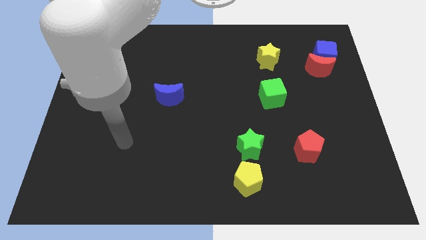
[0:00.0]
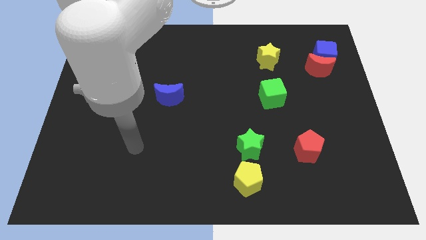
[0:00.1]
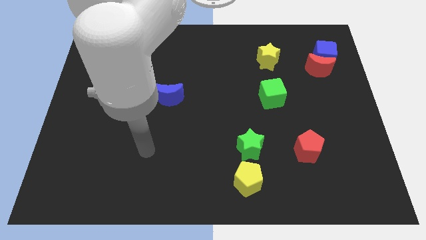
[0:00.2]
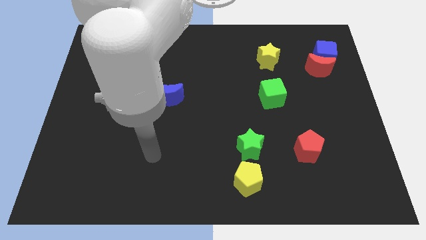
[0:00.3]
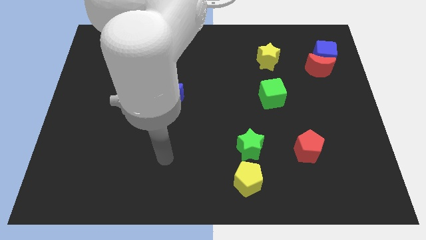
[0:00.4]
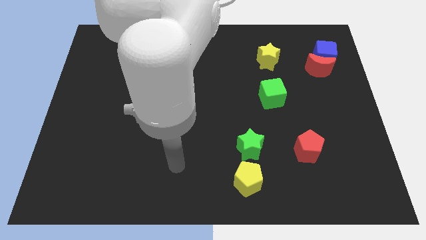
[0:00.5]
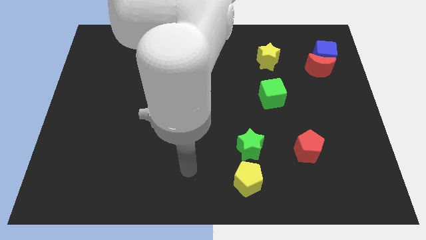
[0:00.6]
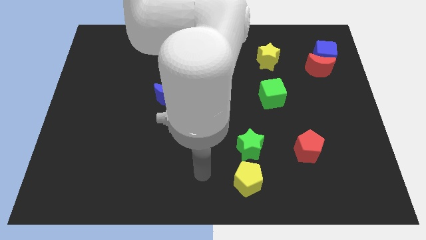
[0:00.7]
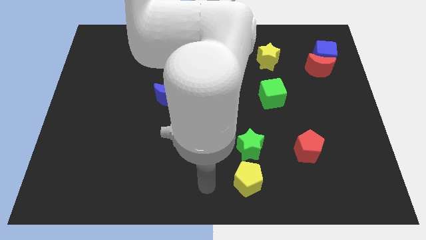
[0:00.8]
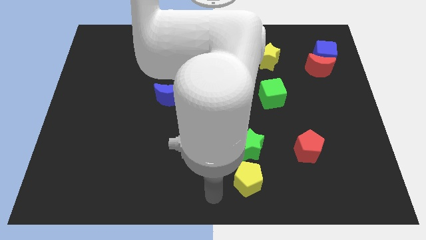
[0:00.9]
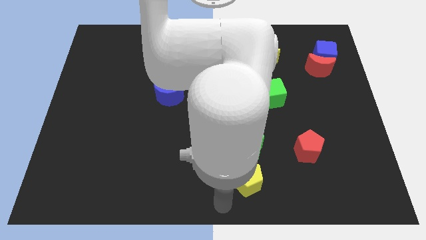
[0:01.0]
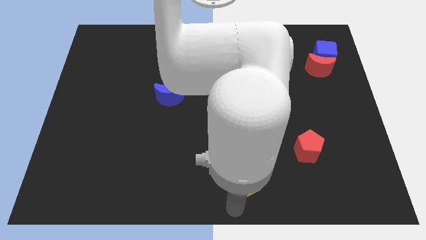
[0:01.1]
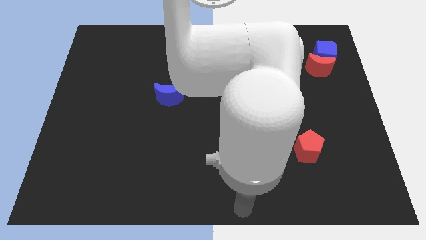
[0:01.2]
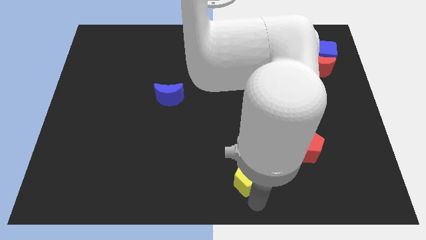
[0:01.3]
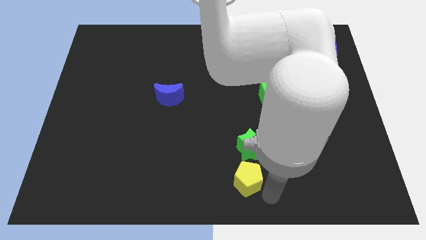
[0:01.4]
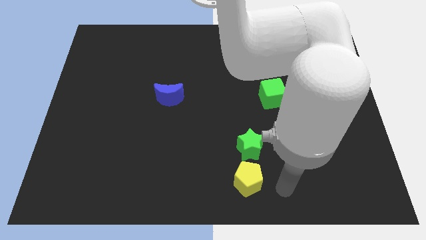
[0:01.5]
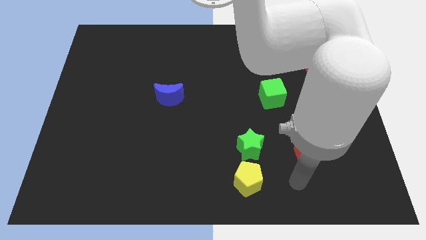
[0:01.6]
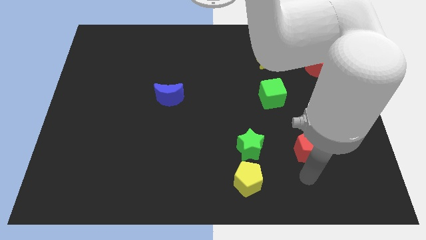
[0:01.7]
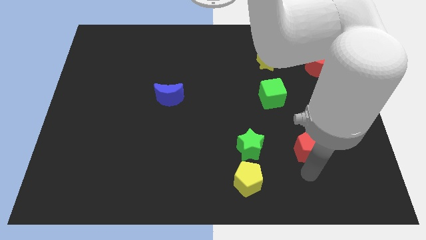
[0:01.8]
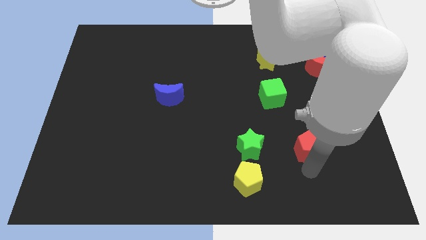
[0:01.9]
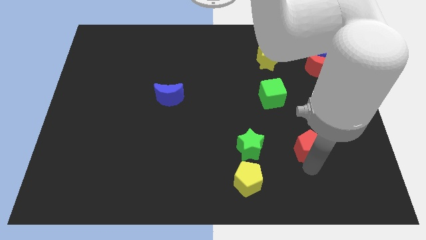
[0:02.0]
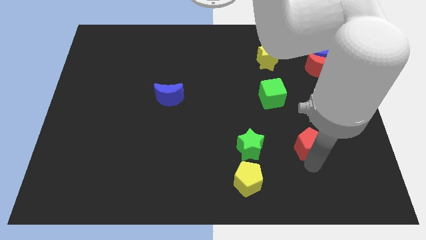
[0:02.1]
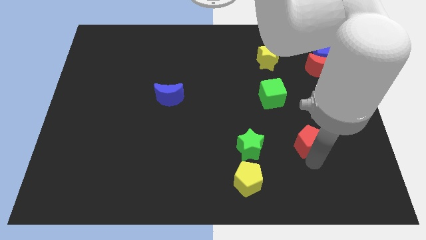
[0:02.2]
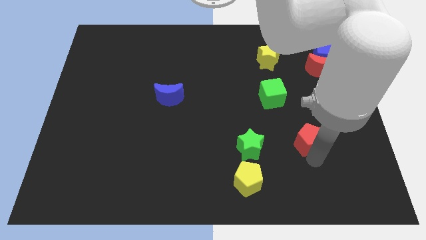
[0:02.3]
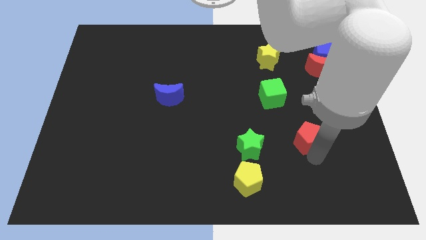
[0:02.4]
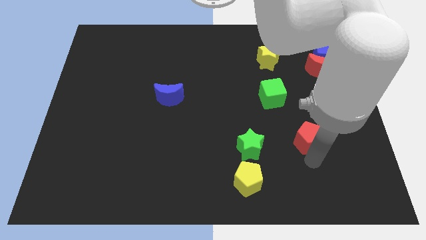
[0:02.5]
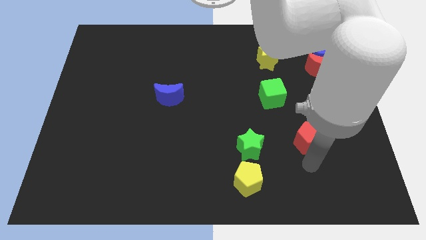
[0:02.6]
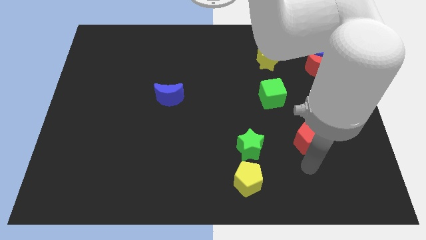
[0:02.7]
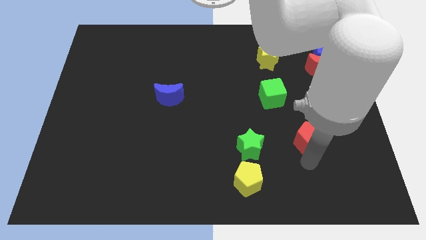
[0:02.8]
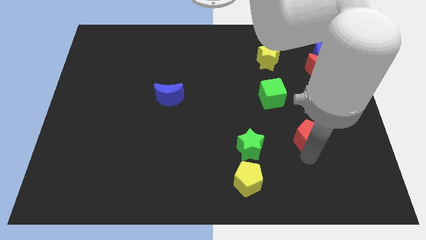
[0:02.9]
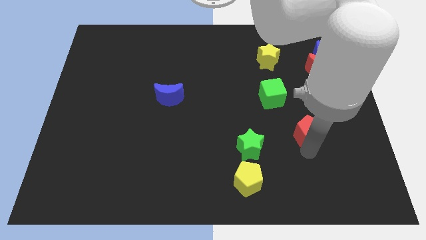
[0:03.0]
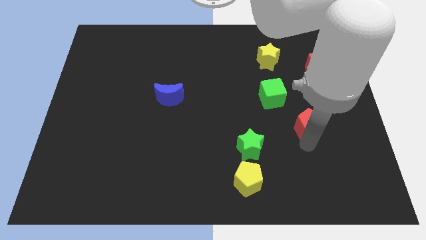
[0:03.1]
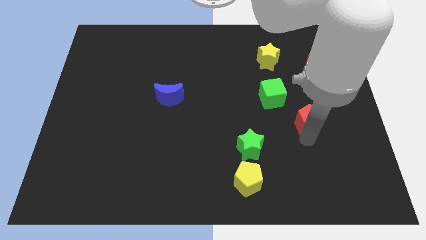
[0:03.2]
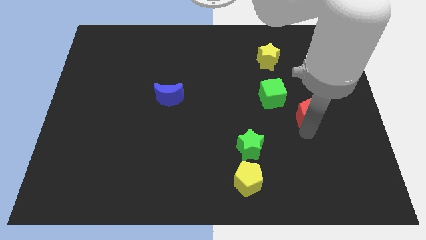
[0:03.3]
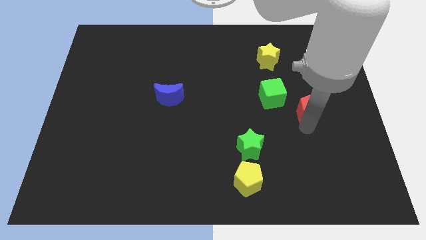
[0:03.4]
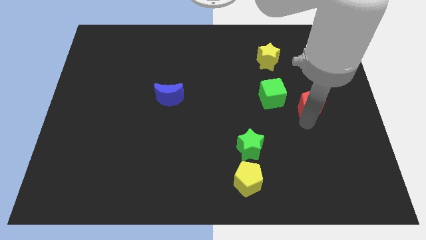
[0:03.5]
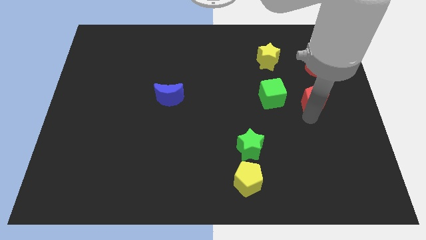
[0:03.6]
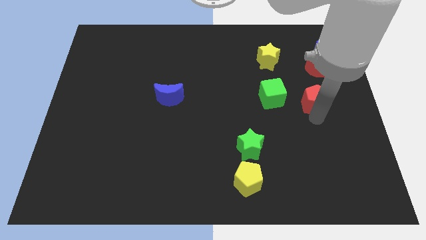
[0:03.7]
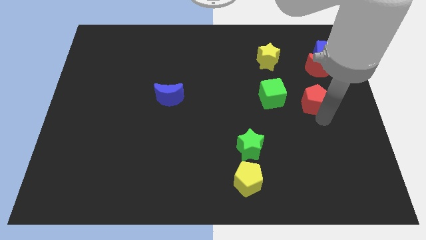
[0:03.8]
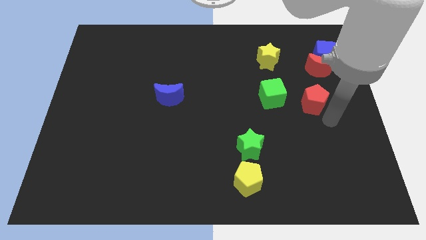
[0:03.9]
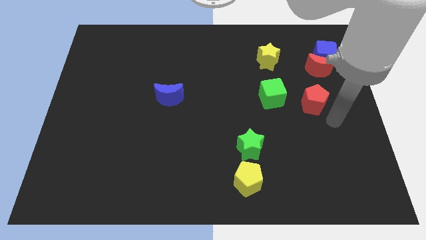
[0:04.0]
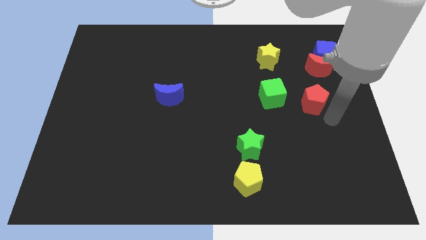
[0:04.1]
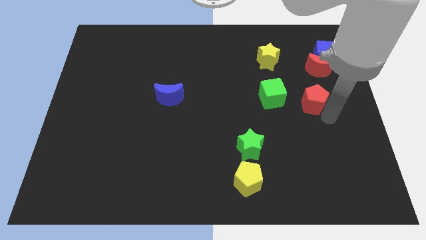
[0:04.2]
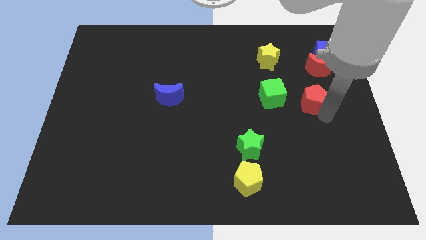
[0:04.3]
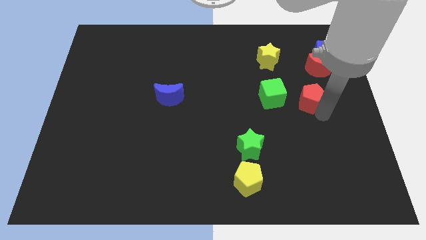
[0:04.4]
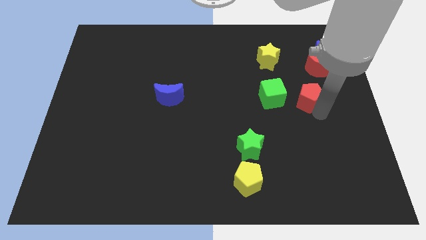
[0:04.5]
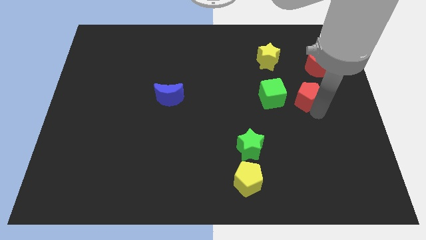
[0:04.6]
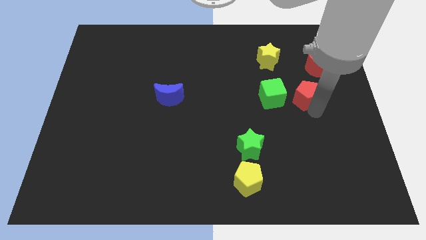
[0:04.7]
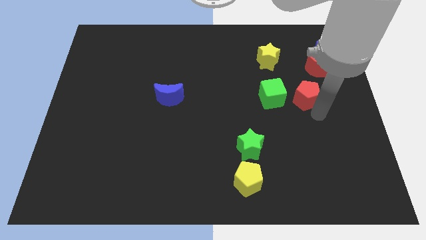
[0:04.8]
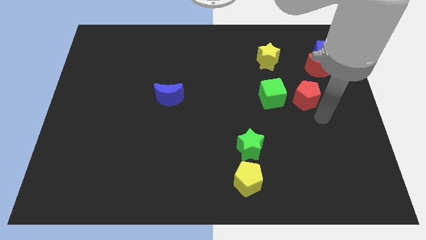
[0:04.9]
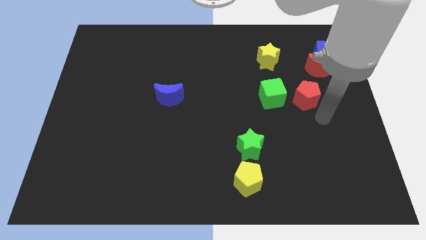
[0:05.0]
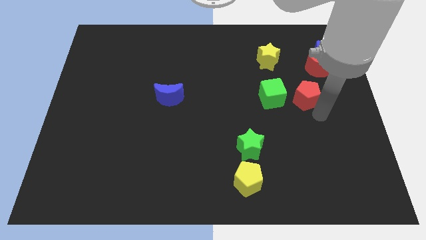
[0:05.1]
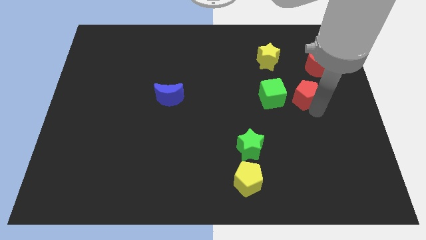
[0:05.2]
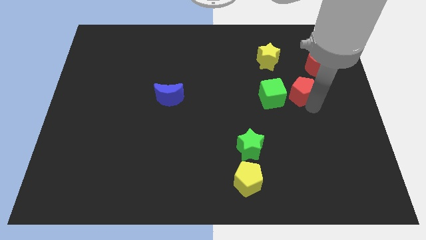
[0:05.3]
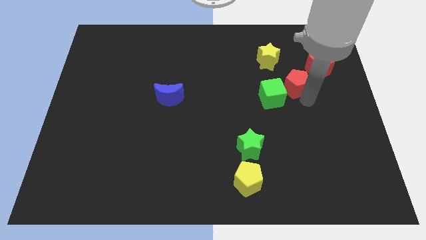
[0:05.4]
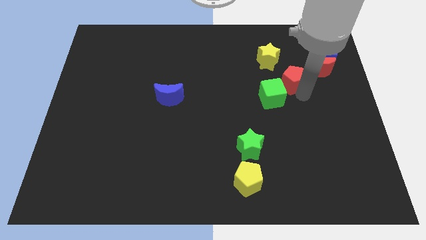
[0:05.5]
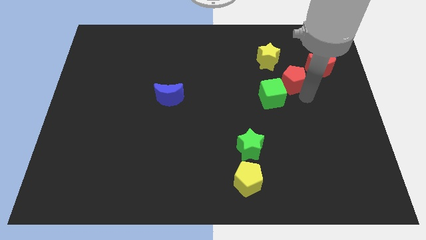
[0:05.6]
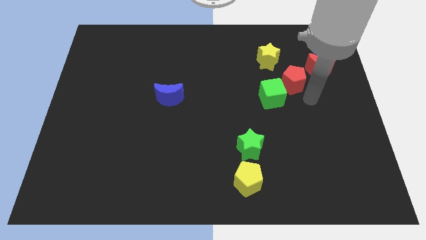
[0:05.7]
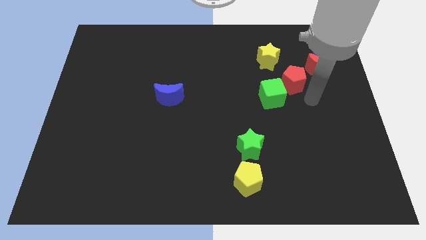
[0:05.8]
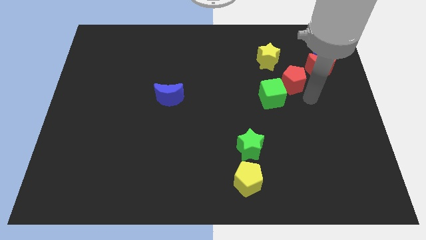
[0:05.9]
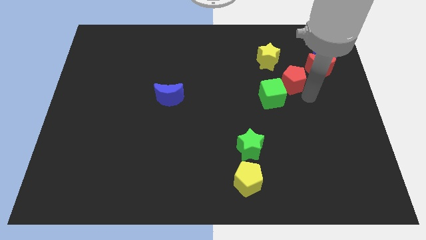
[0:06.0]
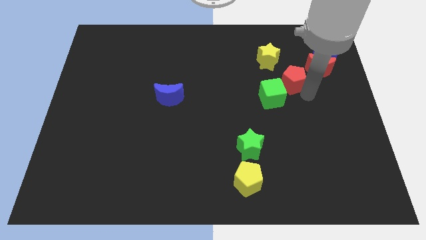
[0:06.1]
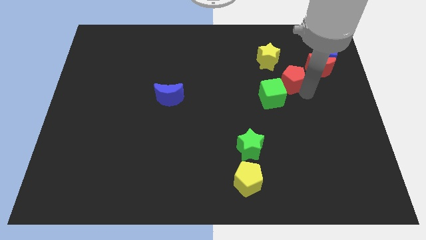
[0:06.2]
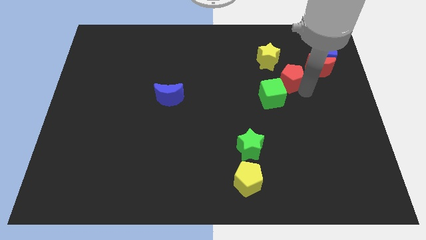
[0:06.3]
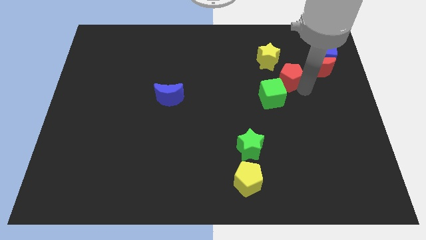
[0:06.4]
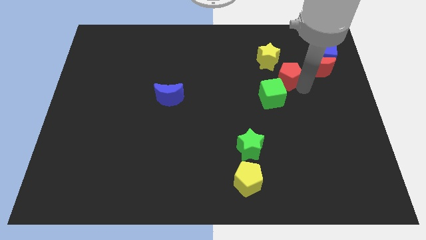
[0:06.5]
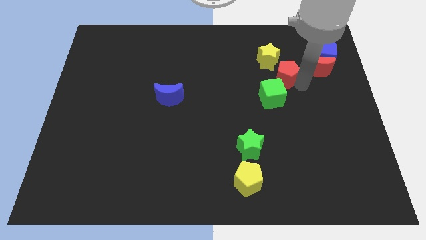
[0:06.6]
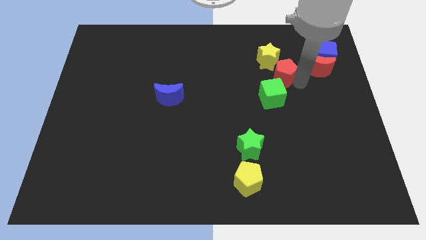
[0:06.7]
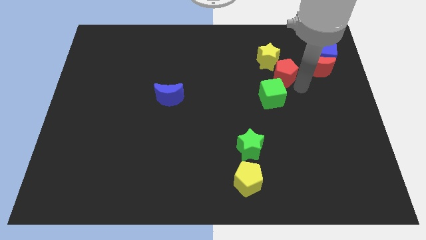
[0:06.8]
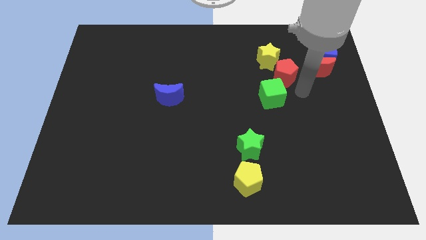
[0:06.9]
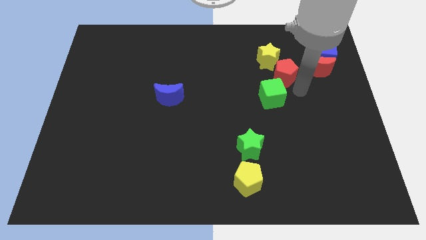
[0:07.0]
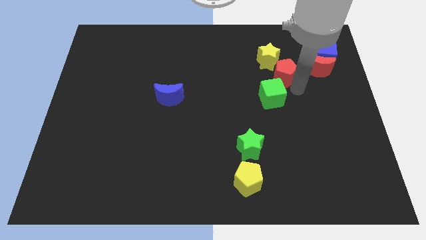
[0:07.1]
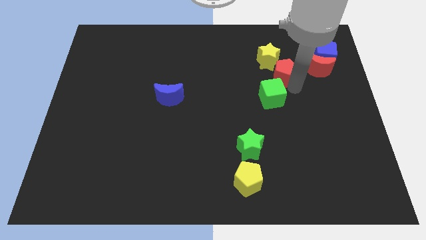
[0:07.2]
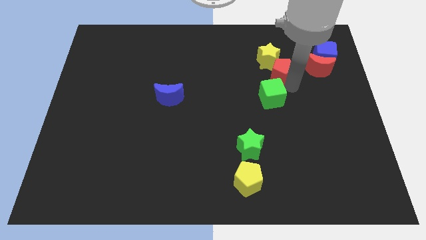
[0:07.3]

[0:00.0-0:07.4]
move the red pentagon towards the yellow star
